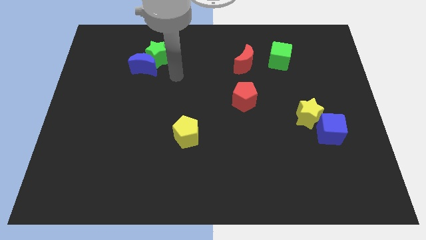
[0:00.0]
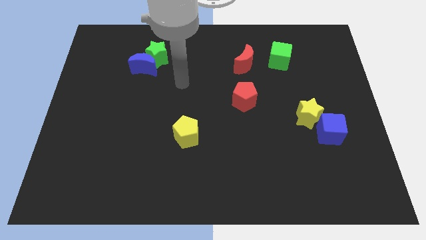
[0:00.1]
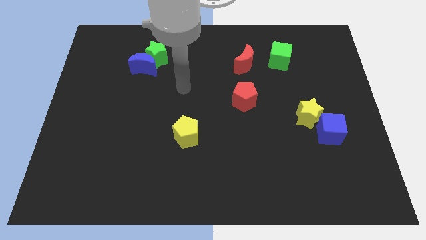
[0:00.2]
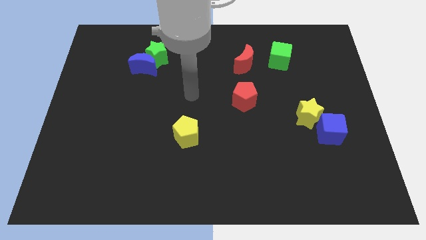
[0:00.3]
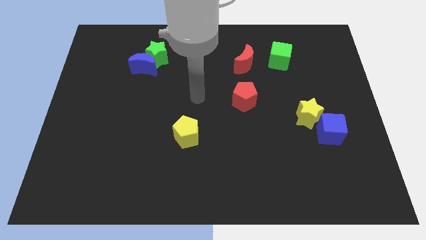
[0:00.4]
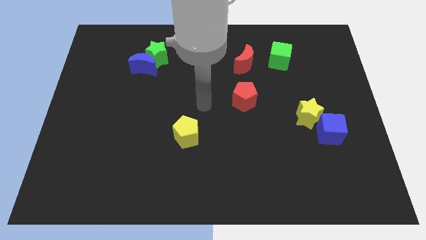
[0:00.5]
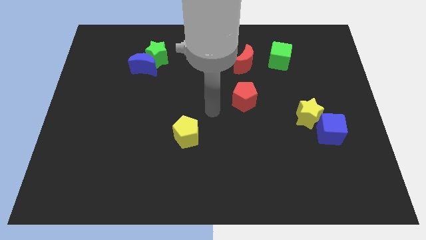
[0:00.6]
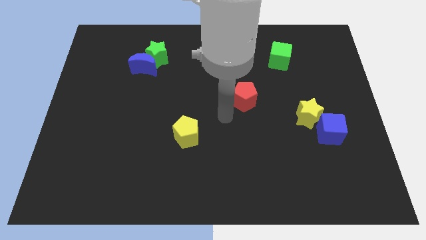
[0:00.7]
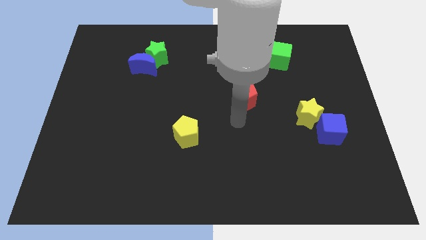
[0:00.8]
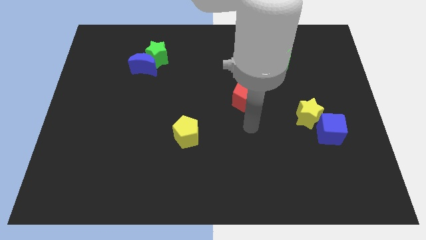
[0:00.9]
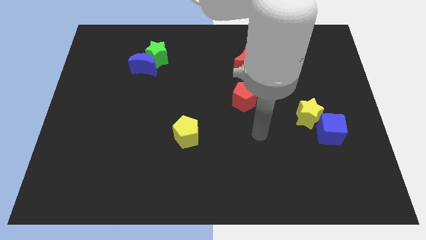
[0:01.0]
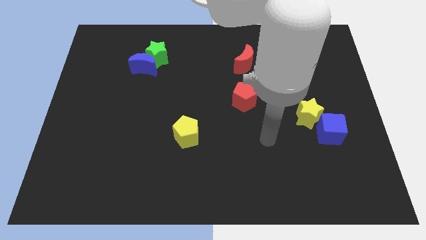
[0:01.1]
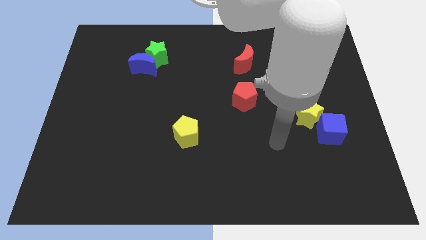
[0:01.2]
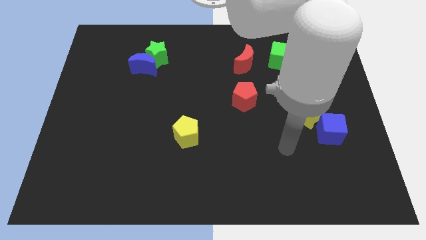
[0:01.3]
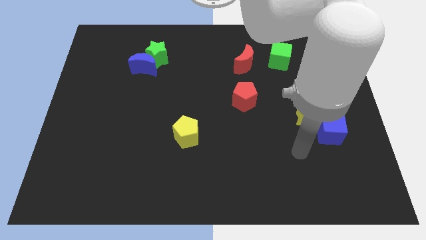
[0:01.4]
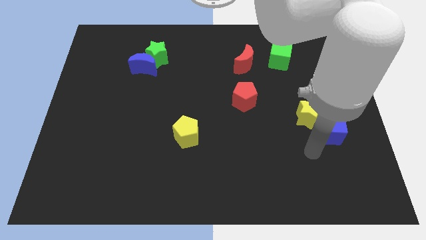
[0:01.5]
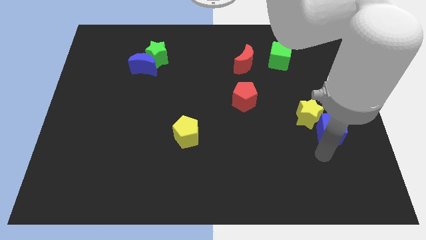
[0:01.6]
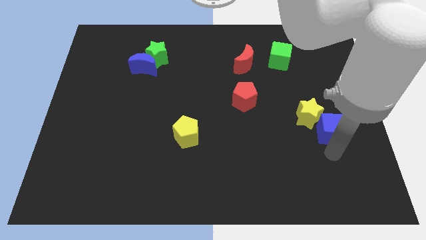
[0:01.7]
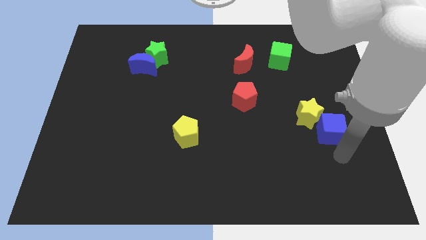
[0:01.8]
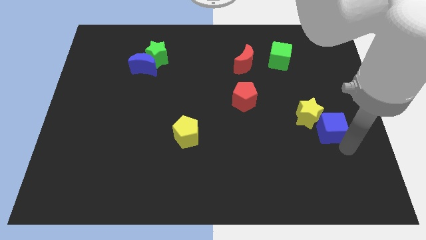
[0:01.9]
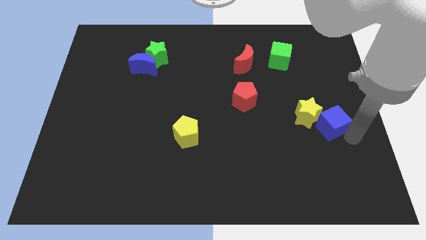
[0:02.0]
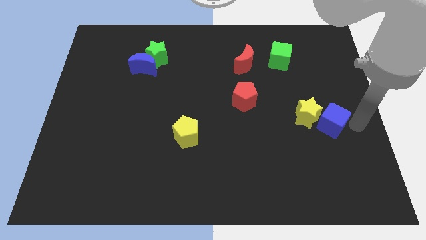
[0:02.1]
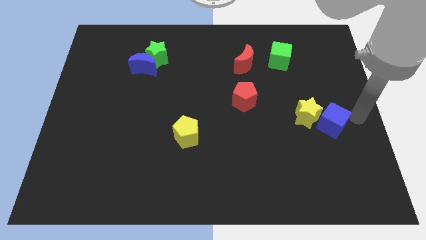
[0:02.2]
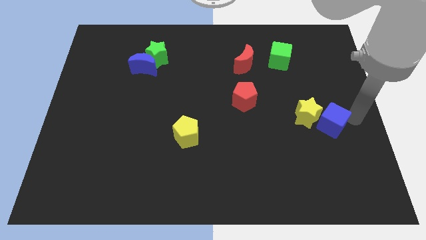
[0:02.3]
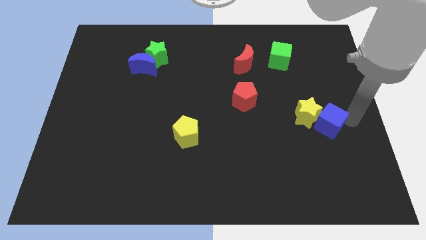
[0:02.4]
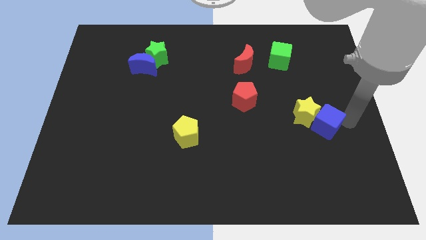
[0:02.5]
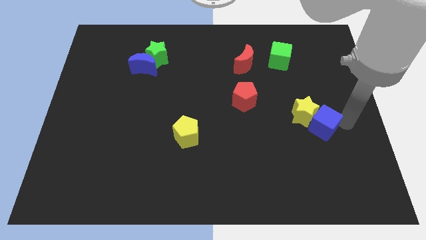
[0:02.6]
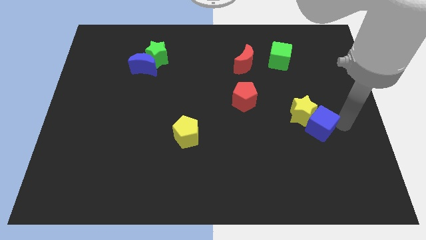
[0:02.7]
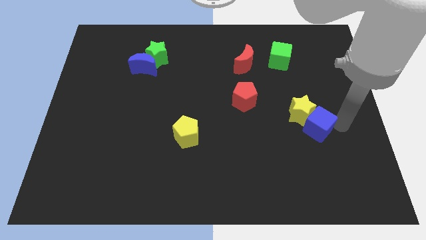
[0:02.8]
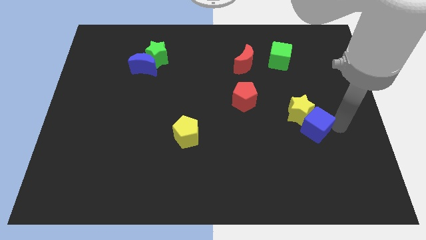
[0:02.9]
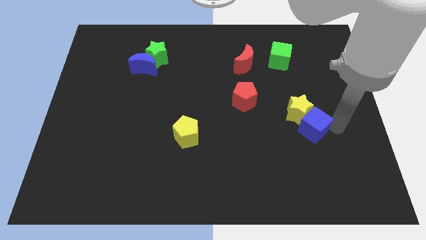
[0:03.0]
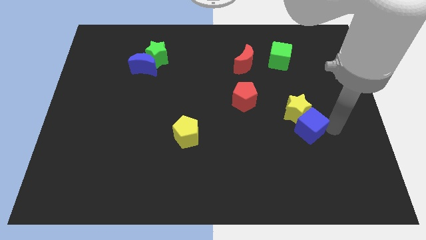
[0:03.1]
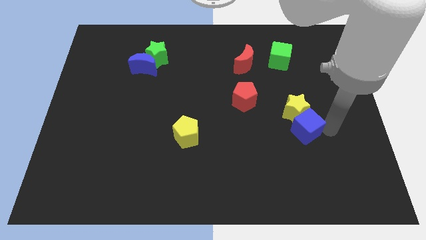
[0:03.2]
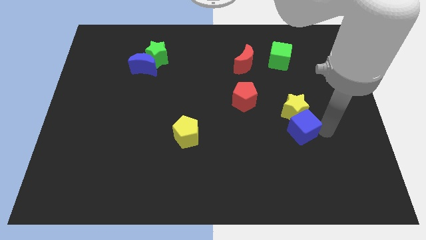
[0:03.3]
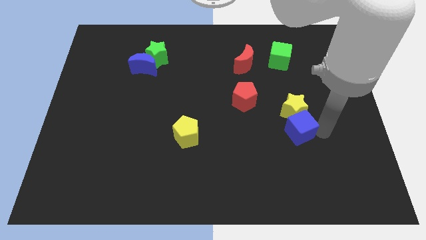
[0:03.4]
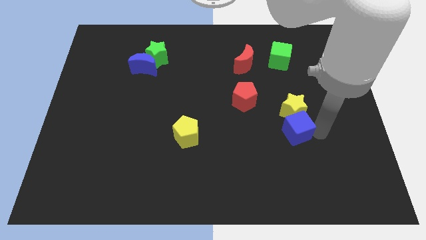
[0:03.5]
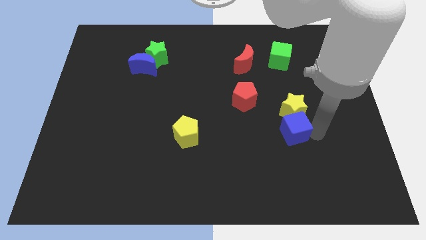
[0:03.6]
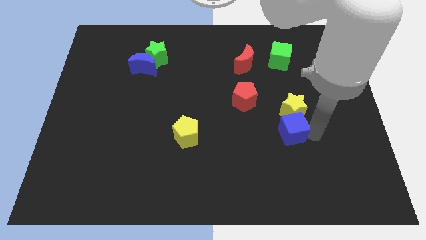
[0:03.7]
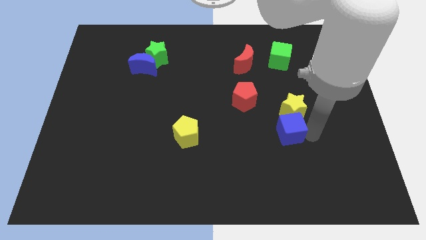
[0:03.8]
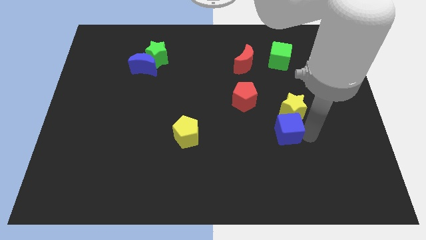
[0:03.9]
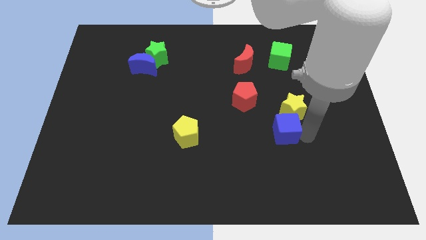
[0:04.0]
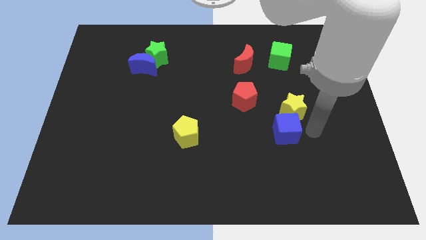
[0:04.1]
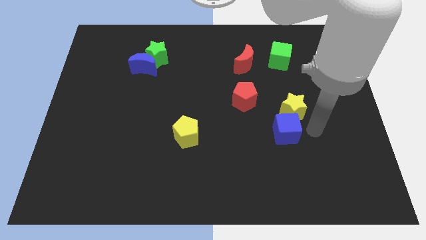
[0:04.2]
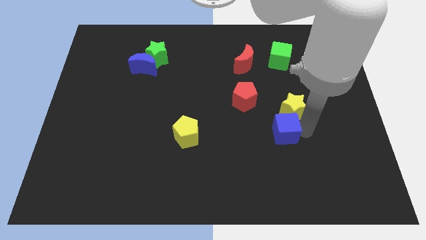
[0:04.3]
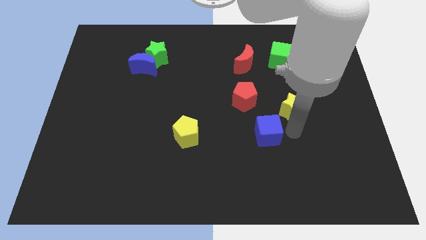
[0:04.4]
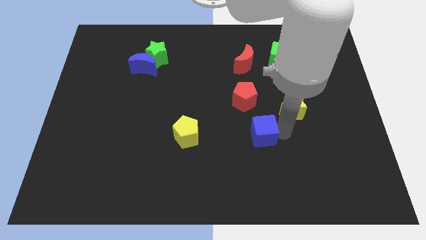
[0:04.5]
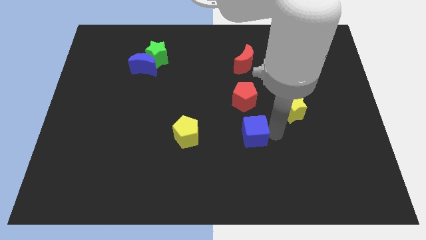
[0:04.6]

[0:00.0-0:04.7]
slide the blue cube to the right side of the yellow pentagon

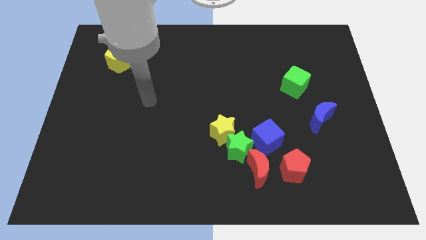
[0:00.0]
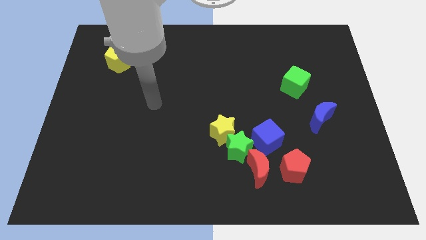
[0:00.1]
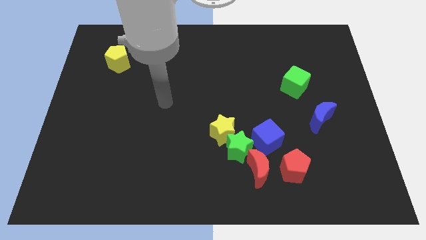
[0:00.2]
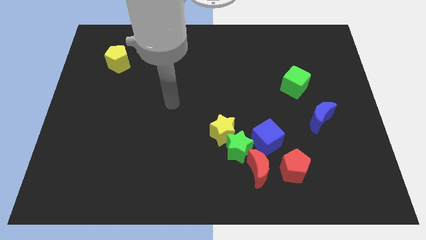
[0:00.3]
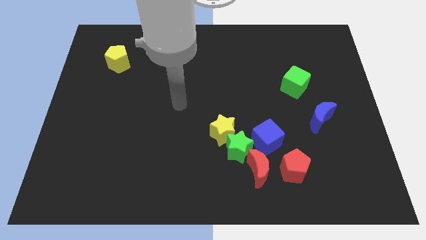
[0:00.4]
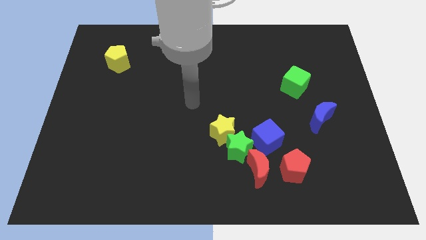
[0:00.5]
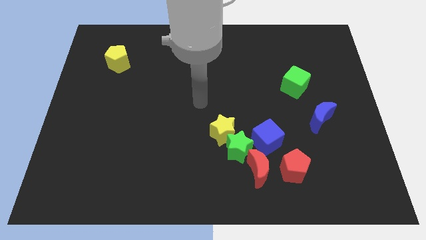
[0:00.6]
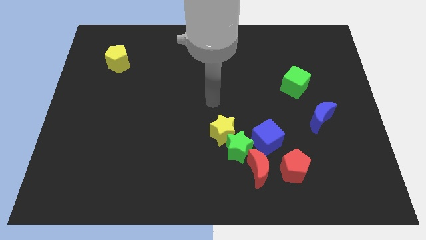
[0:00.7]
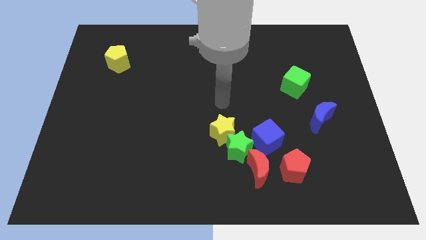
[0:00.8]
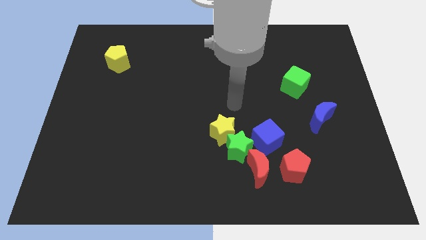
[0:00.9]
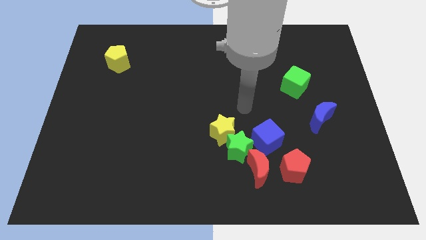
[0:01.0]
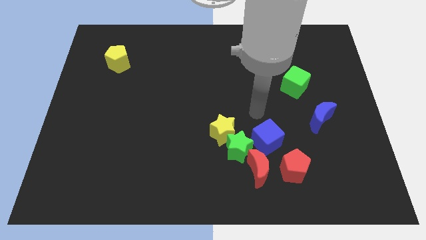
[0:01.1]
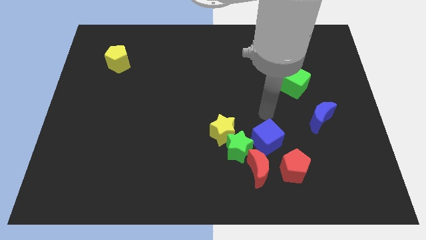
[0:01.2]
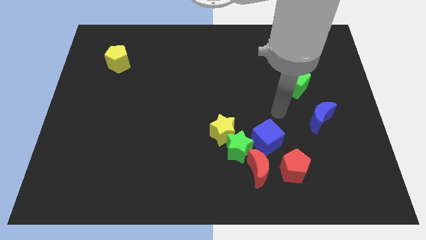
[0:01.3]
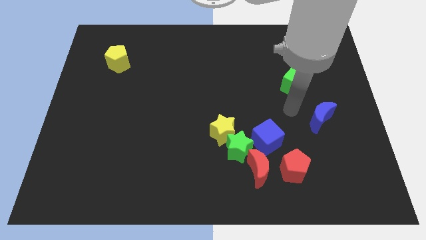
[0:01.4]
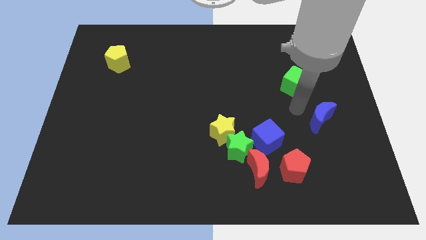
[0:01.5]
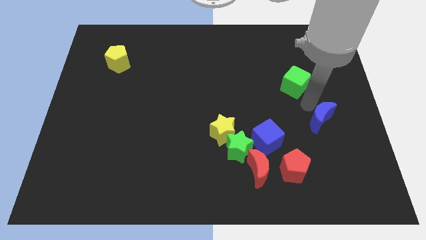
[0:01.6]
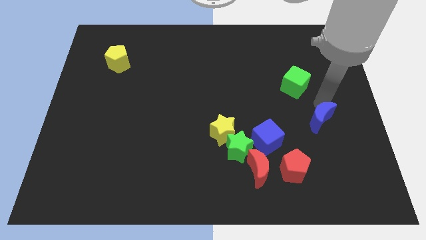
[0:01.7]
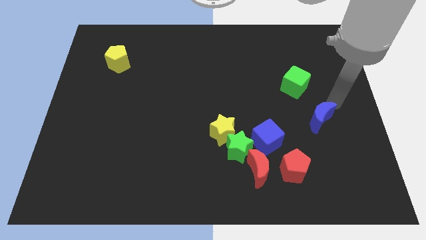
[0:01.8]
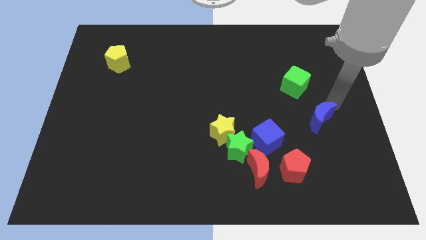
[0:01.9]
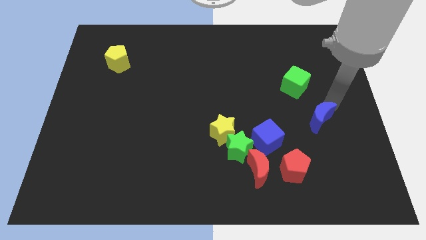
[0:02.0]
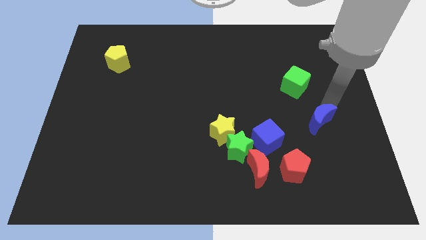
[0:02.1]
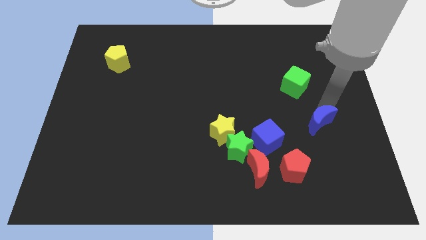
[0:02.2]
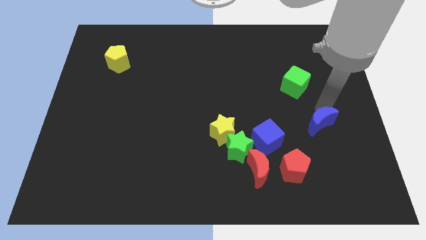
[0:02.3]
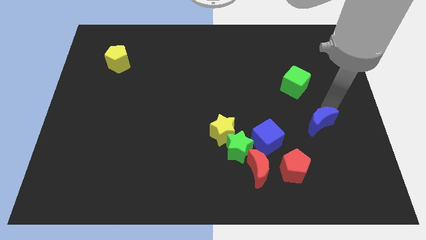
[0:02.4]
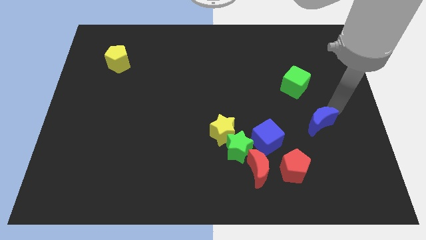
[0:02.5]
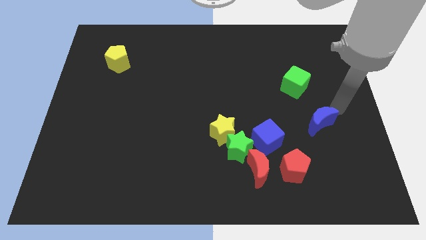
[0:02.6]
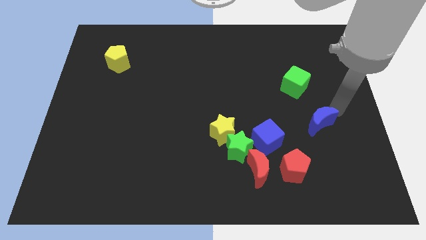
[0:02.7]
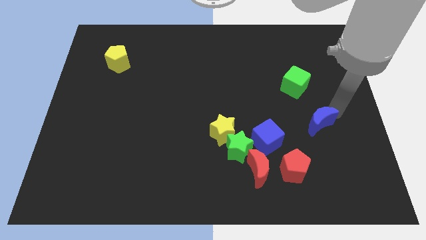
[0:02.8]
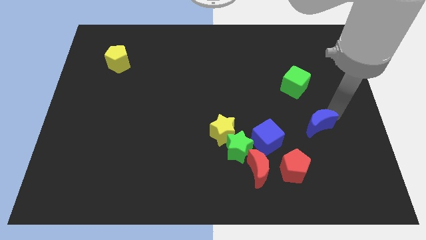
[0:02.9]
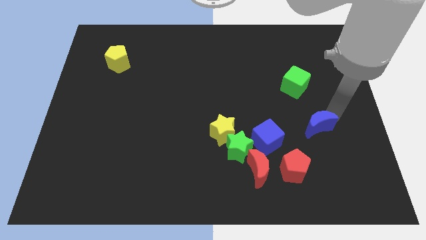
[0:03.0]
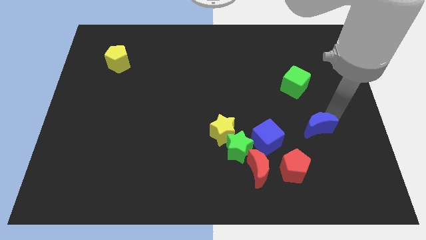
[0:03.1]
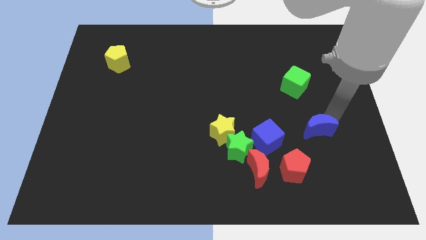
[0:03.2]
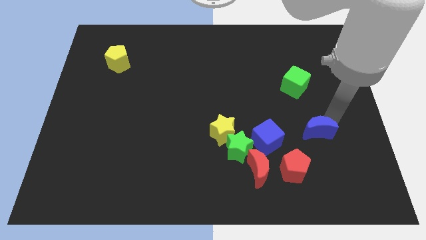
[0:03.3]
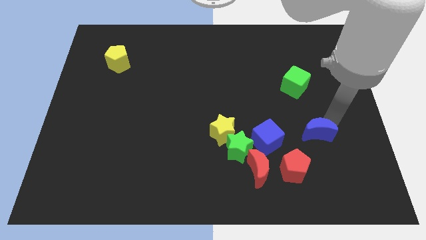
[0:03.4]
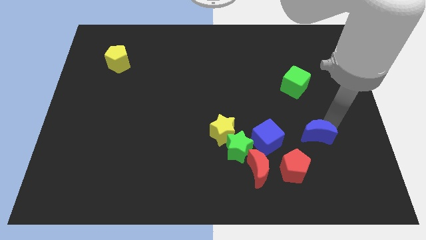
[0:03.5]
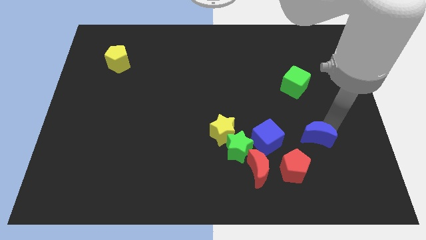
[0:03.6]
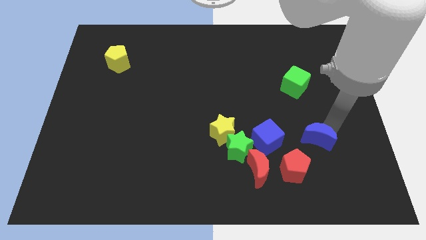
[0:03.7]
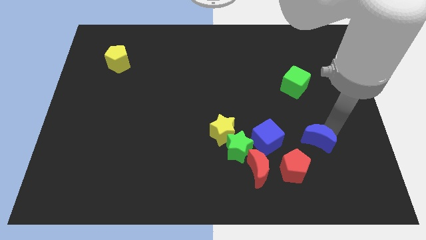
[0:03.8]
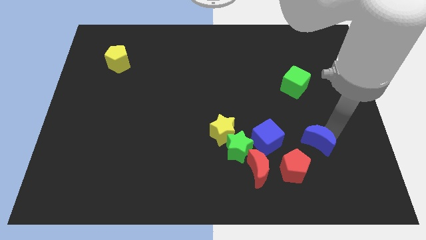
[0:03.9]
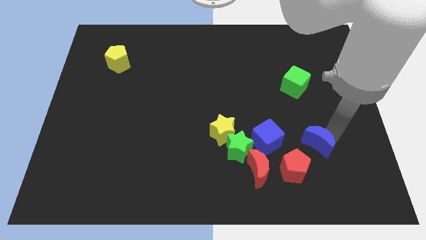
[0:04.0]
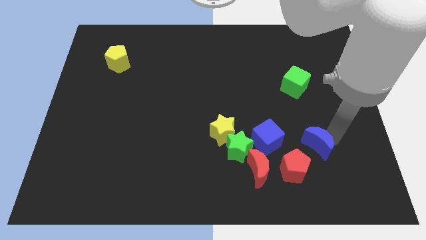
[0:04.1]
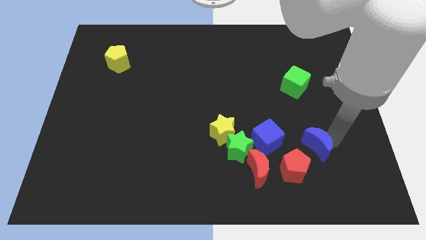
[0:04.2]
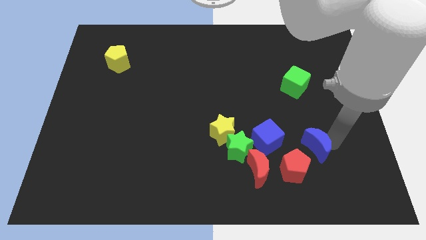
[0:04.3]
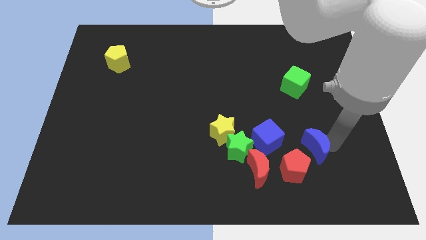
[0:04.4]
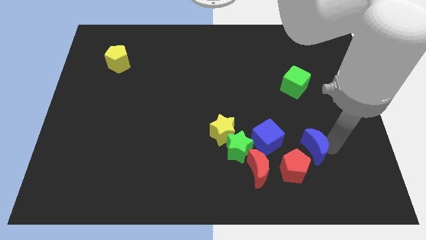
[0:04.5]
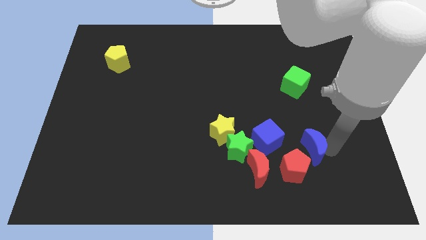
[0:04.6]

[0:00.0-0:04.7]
slide the blue moon right of the green star
